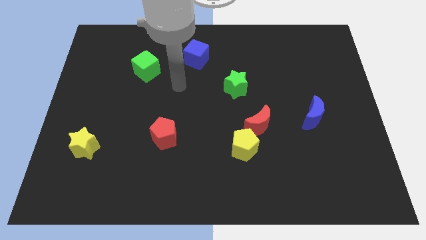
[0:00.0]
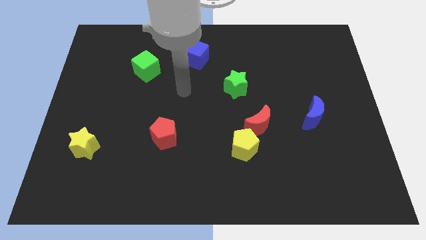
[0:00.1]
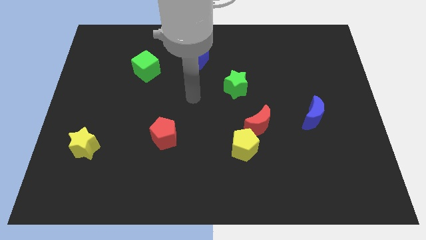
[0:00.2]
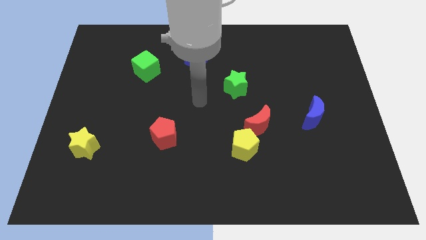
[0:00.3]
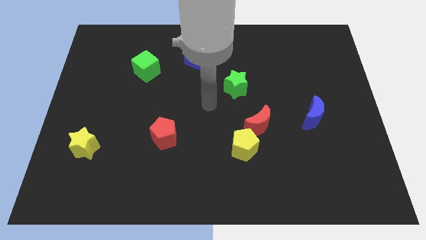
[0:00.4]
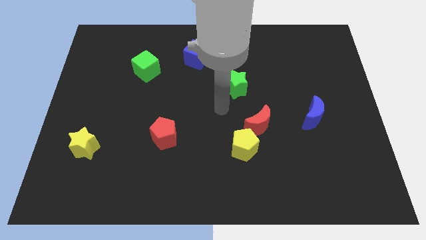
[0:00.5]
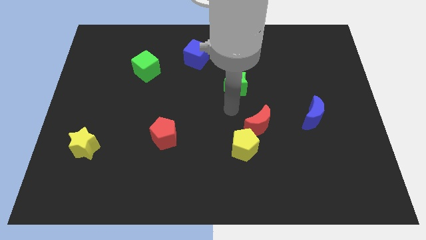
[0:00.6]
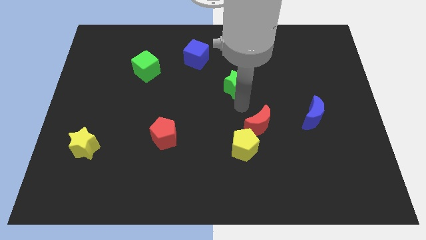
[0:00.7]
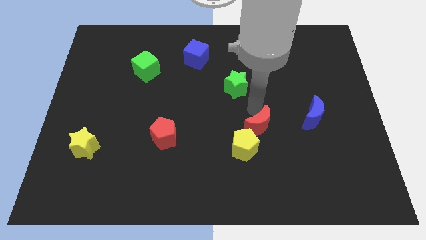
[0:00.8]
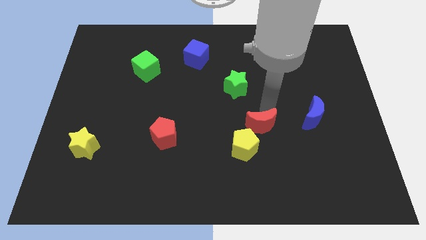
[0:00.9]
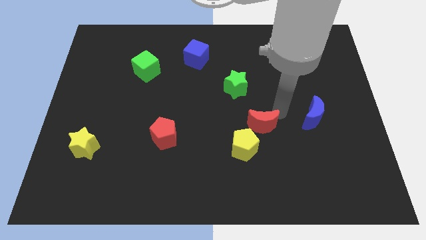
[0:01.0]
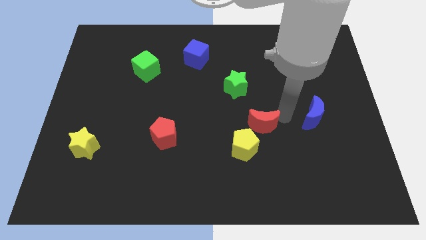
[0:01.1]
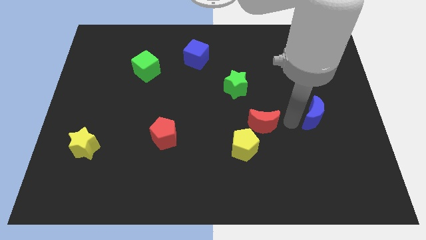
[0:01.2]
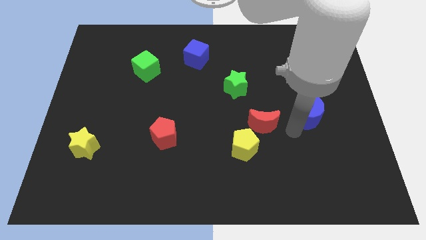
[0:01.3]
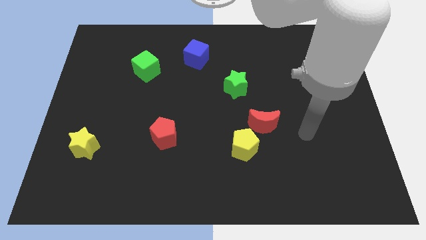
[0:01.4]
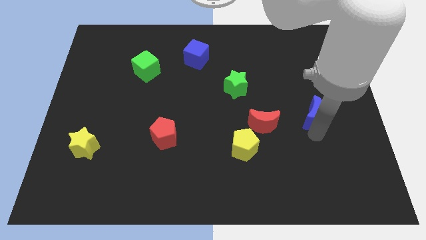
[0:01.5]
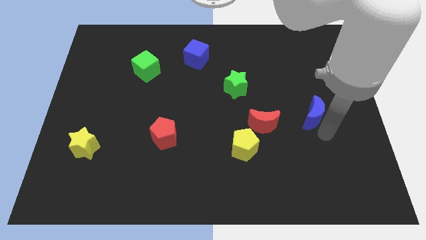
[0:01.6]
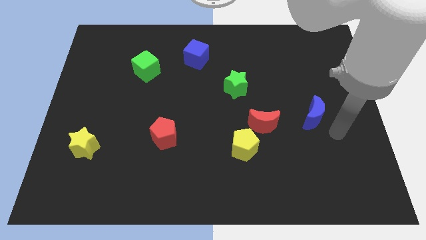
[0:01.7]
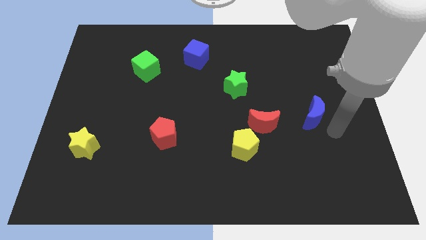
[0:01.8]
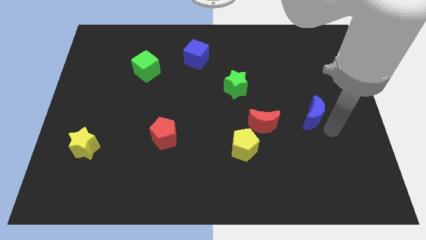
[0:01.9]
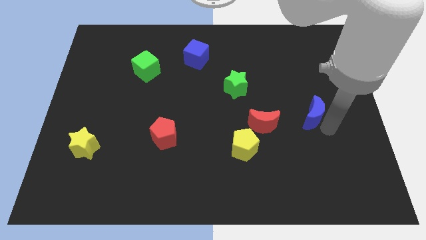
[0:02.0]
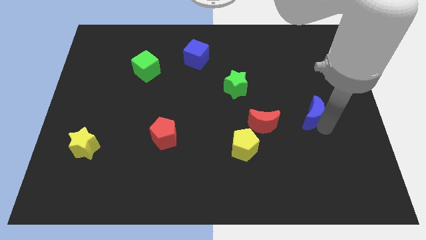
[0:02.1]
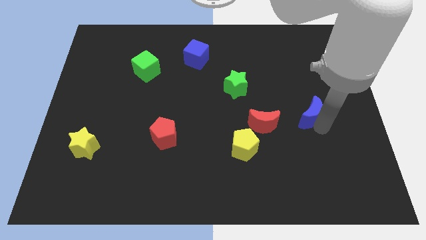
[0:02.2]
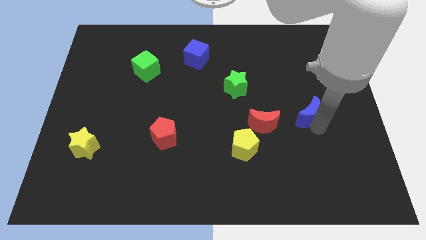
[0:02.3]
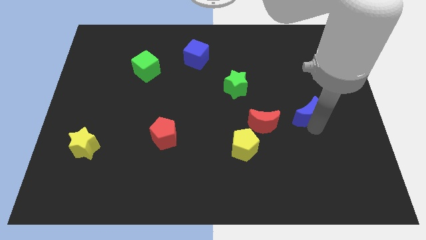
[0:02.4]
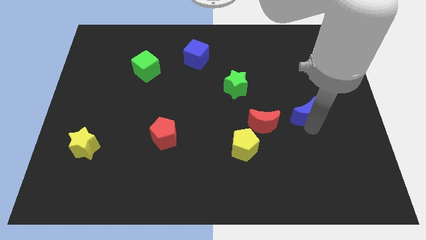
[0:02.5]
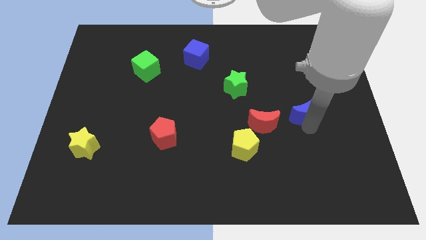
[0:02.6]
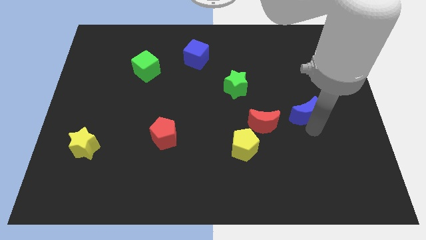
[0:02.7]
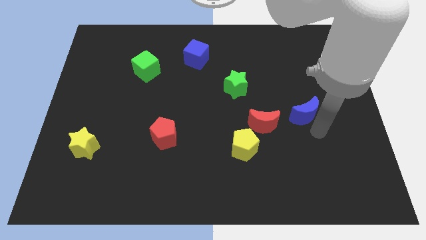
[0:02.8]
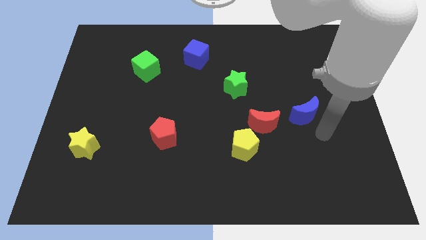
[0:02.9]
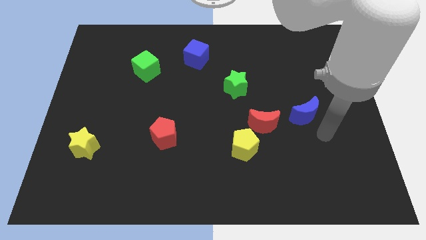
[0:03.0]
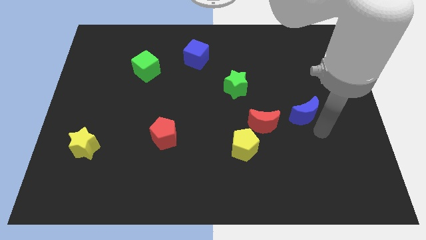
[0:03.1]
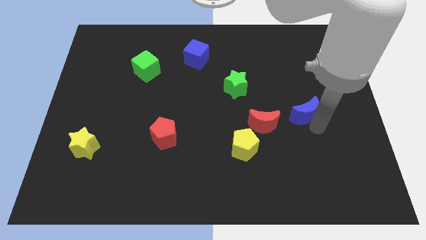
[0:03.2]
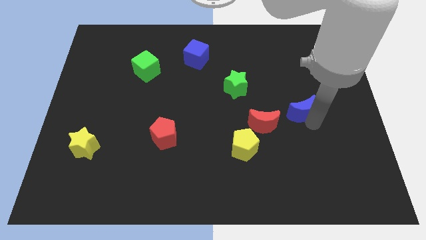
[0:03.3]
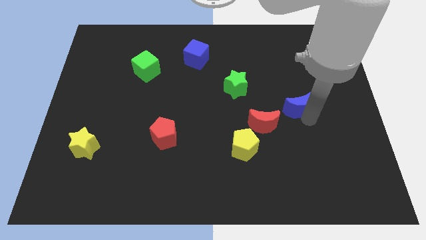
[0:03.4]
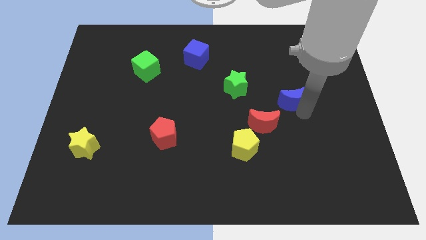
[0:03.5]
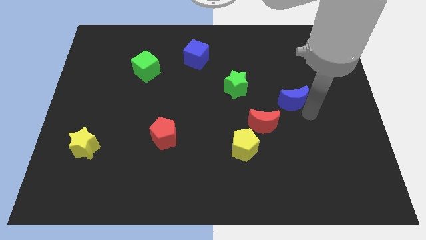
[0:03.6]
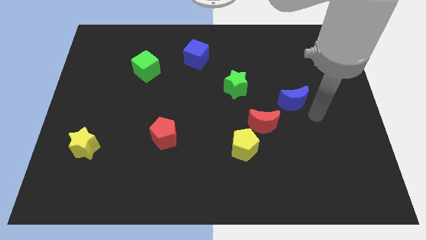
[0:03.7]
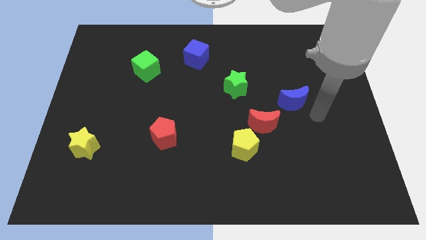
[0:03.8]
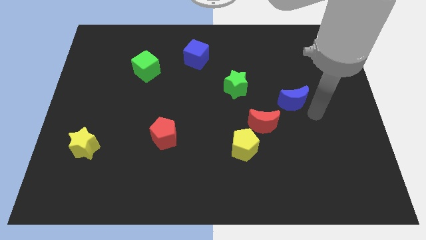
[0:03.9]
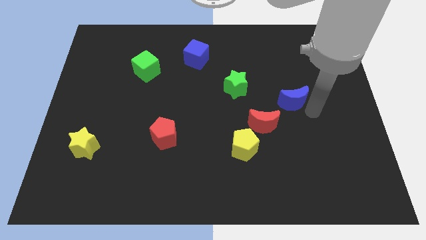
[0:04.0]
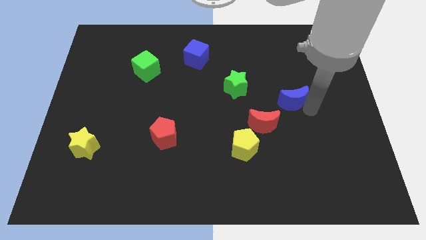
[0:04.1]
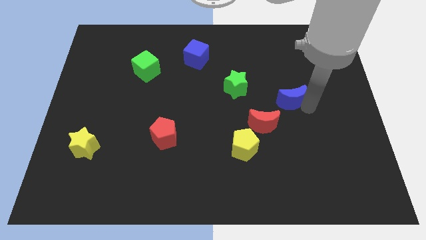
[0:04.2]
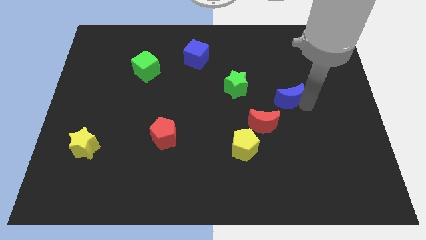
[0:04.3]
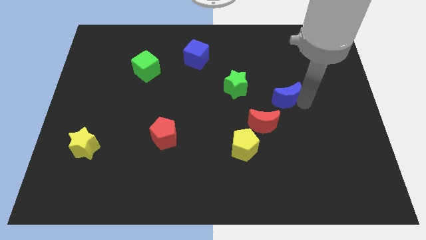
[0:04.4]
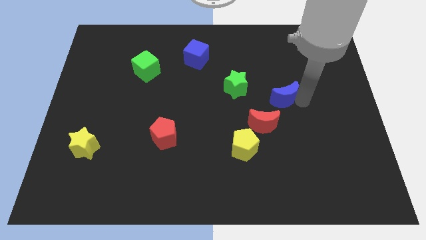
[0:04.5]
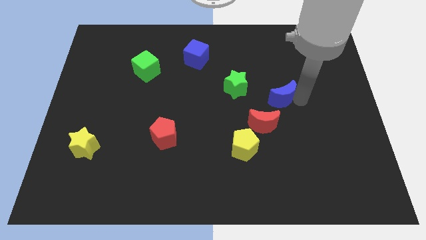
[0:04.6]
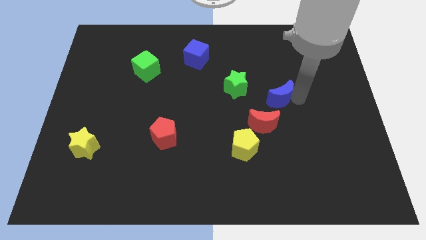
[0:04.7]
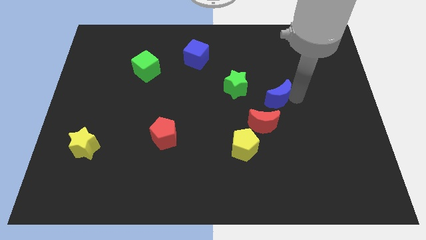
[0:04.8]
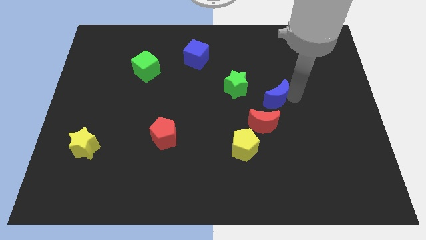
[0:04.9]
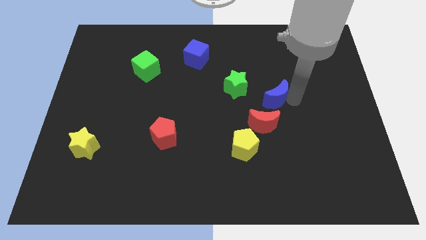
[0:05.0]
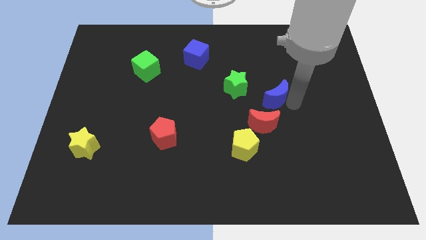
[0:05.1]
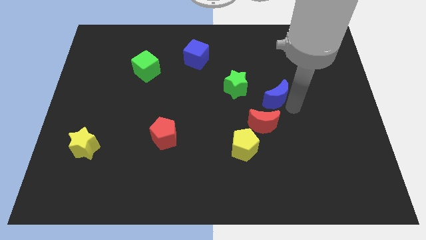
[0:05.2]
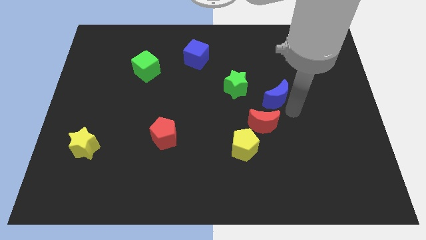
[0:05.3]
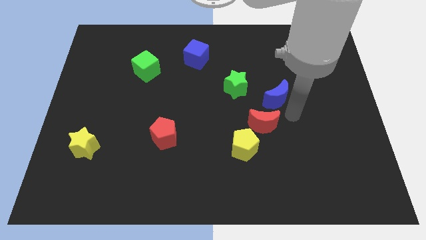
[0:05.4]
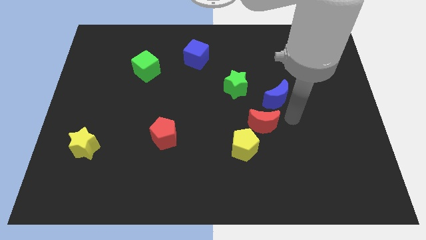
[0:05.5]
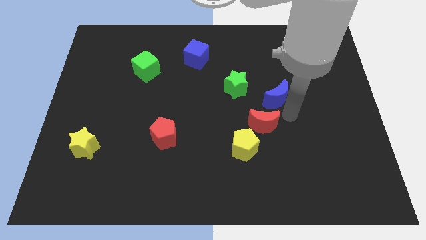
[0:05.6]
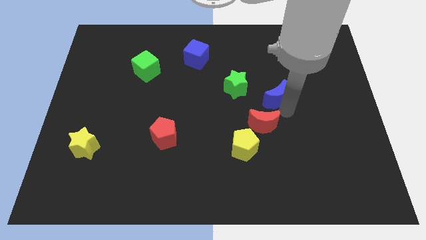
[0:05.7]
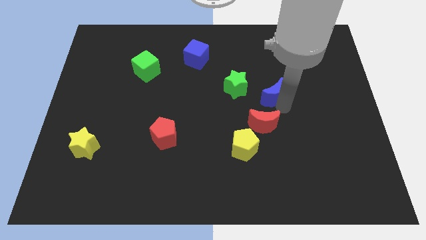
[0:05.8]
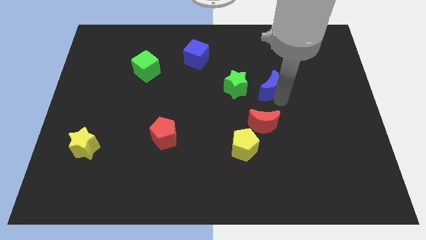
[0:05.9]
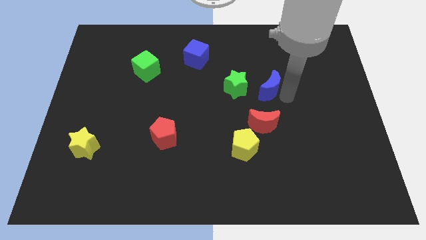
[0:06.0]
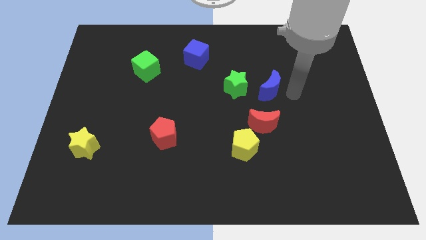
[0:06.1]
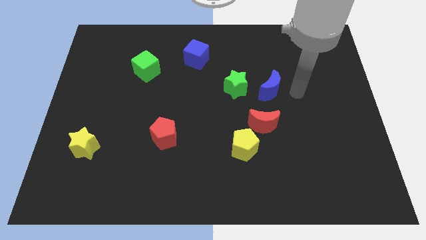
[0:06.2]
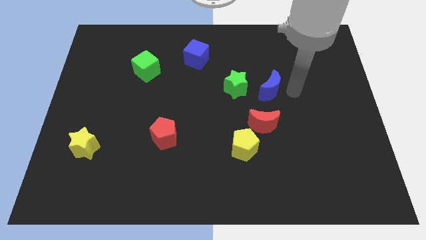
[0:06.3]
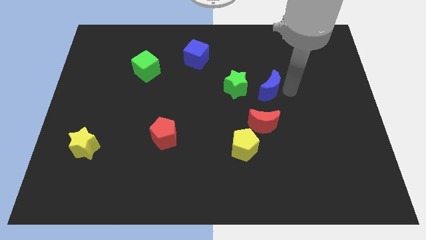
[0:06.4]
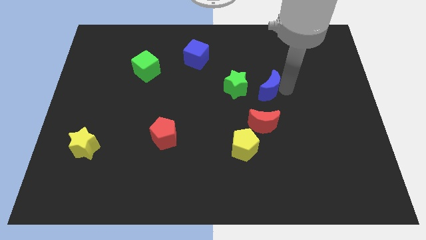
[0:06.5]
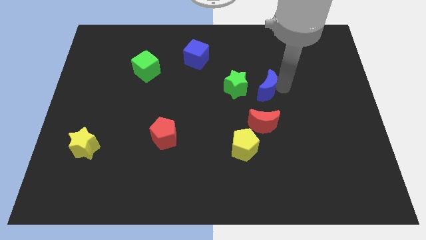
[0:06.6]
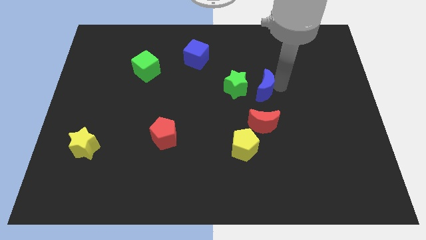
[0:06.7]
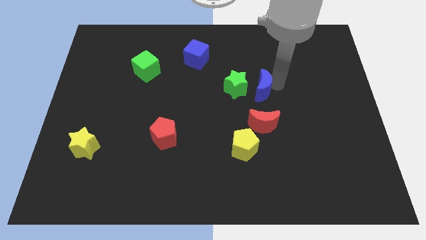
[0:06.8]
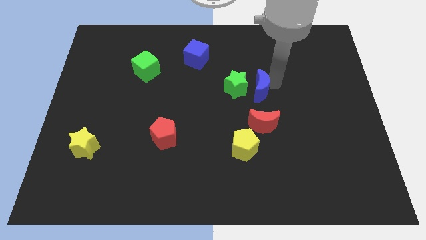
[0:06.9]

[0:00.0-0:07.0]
push the blue moon close to the green star

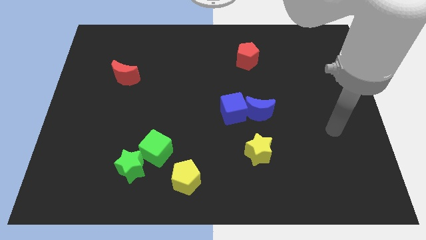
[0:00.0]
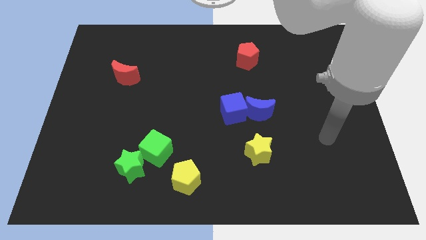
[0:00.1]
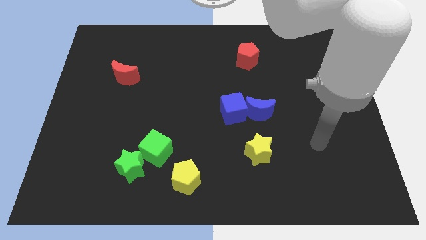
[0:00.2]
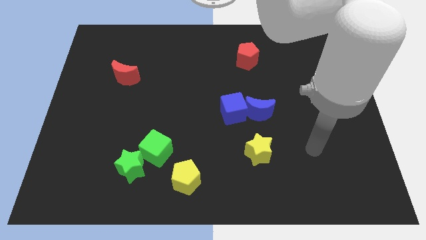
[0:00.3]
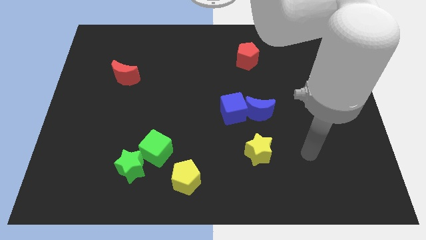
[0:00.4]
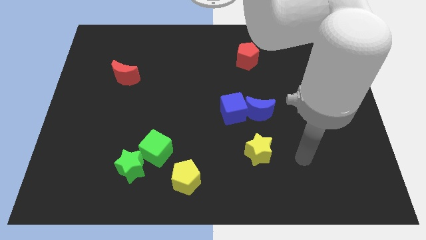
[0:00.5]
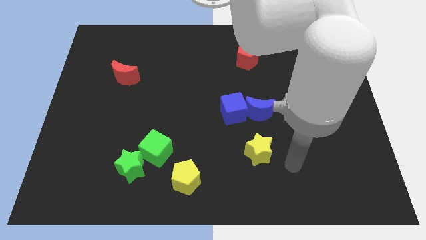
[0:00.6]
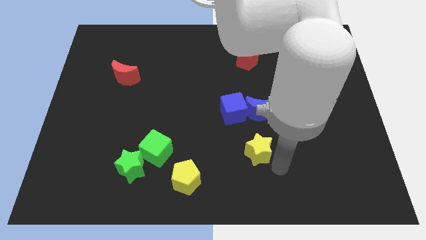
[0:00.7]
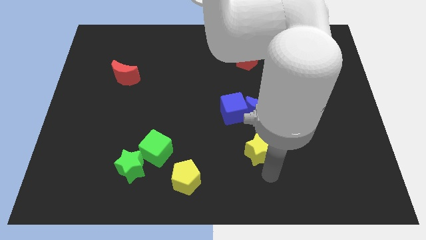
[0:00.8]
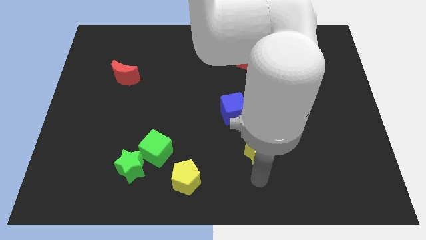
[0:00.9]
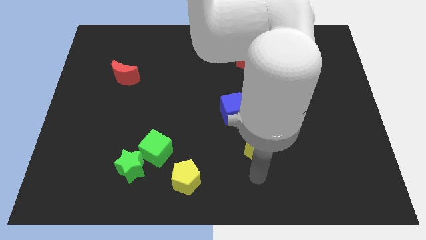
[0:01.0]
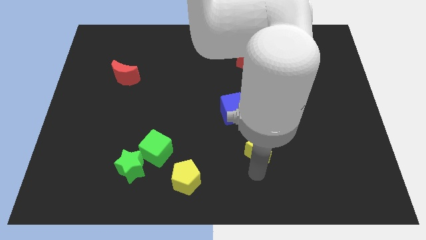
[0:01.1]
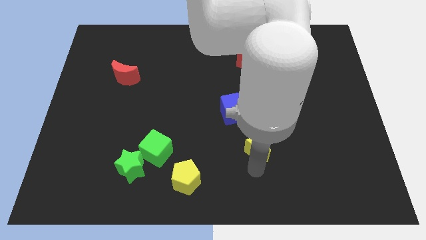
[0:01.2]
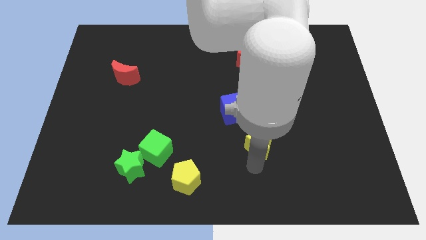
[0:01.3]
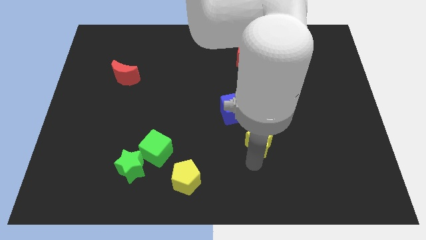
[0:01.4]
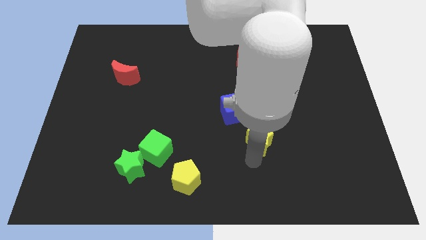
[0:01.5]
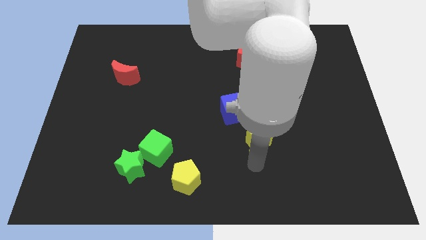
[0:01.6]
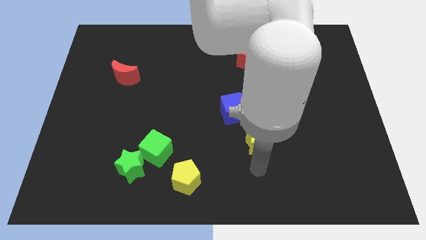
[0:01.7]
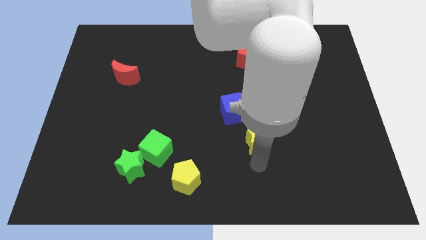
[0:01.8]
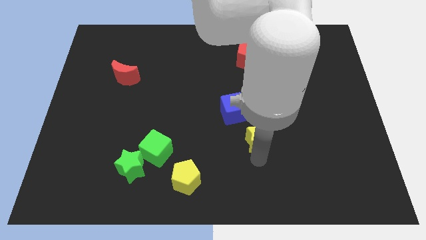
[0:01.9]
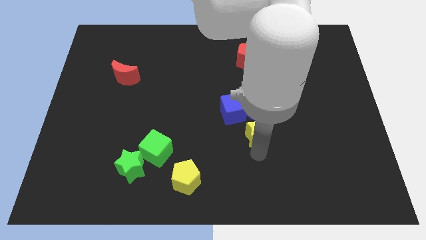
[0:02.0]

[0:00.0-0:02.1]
push the yellow star close to the blue moon
